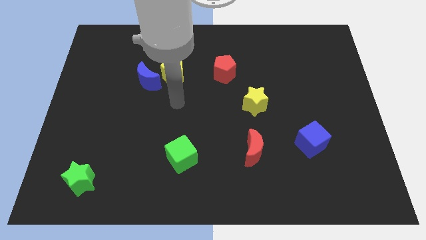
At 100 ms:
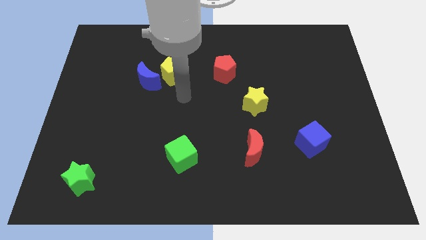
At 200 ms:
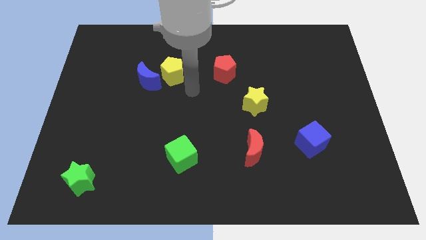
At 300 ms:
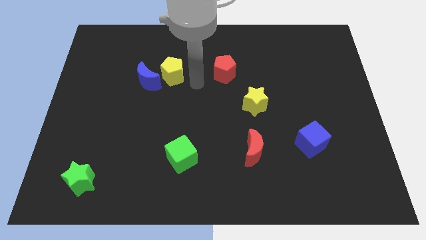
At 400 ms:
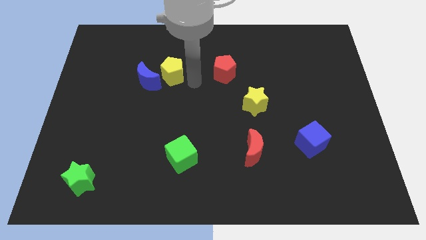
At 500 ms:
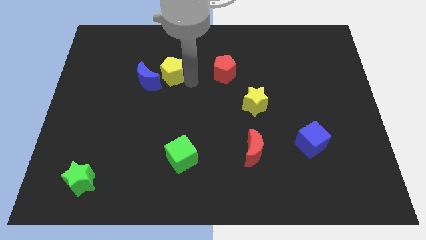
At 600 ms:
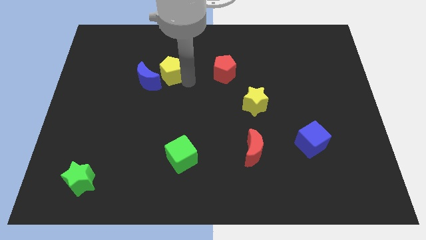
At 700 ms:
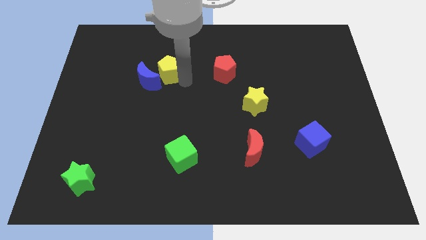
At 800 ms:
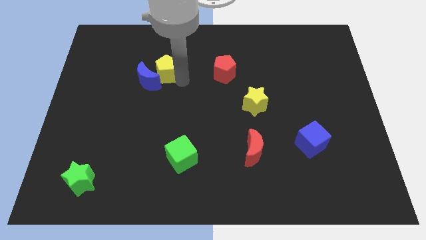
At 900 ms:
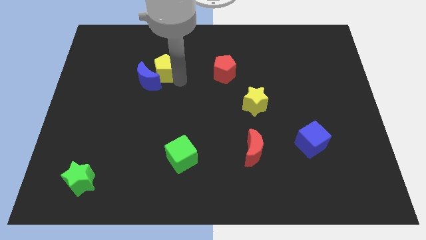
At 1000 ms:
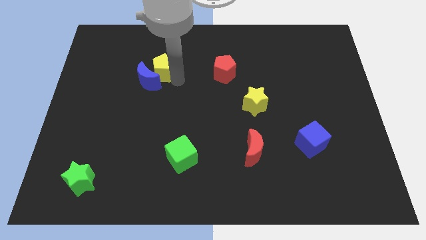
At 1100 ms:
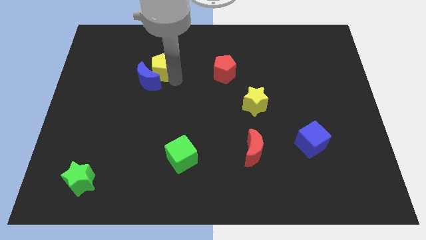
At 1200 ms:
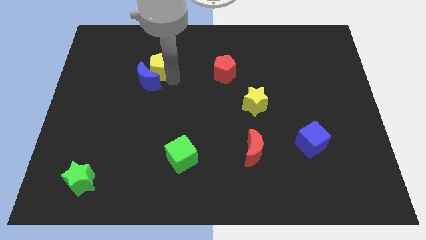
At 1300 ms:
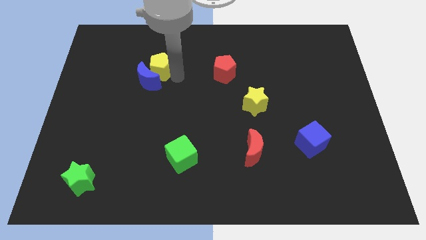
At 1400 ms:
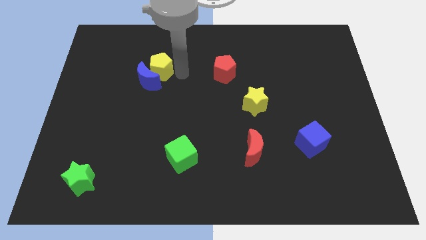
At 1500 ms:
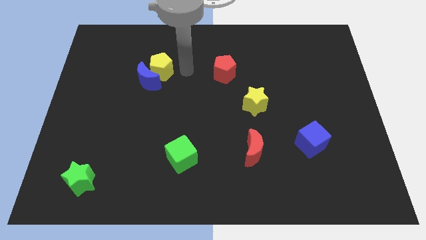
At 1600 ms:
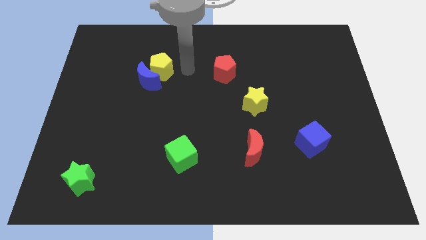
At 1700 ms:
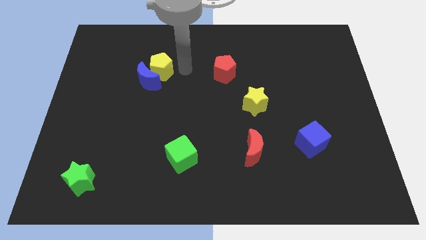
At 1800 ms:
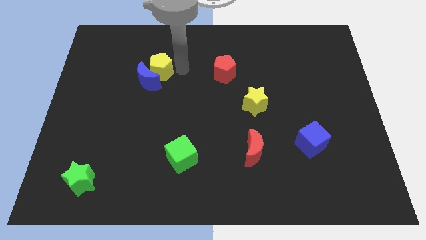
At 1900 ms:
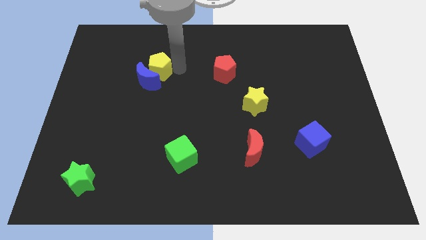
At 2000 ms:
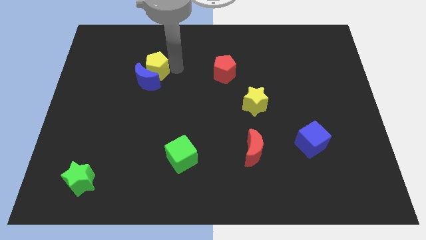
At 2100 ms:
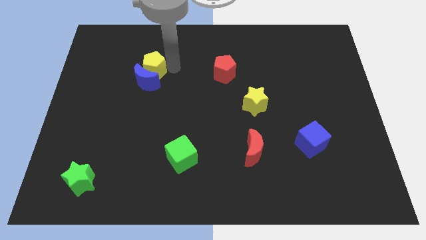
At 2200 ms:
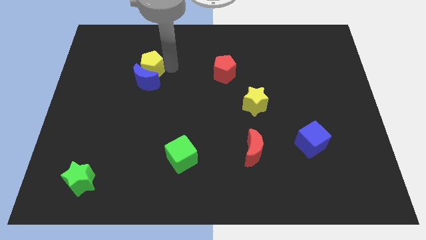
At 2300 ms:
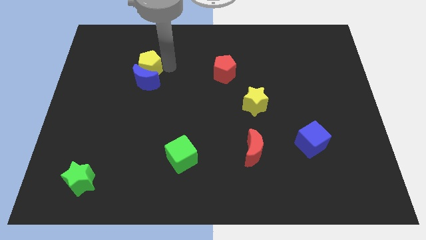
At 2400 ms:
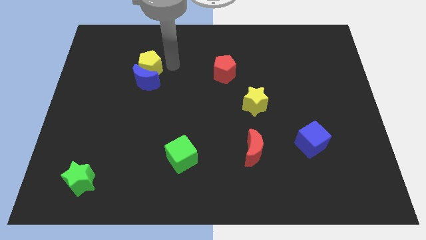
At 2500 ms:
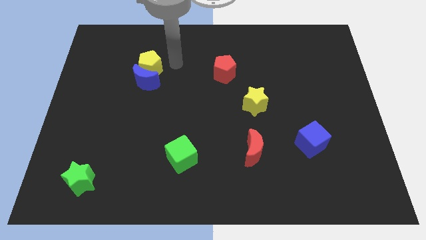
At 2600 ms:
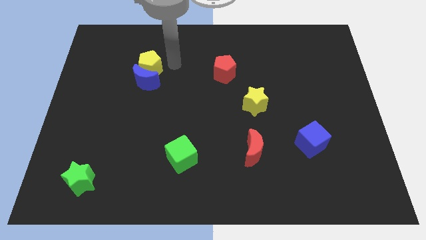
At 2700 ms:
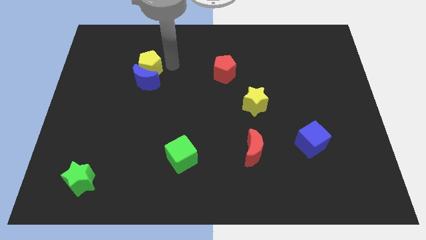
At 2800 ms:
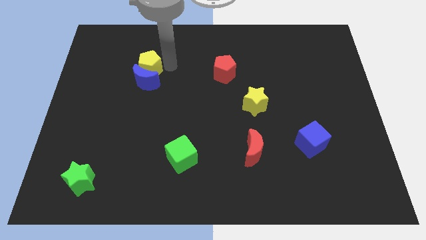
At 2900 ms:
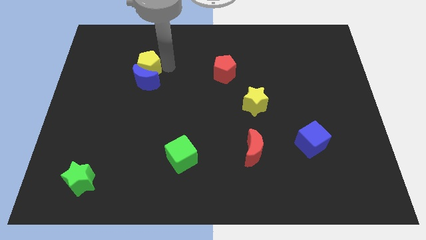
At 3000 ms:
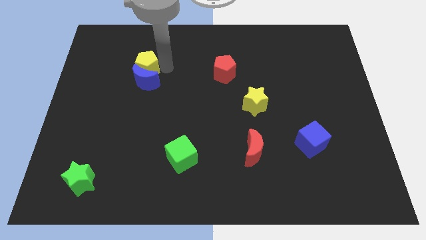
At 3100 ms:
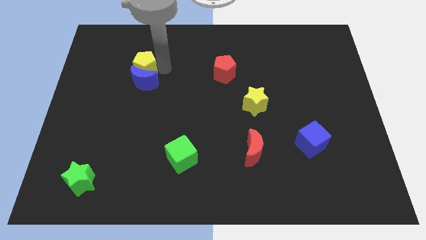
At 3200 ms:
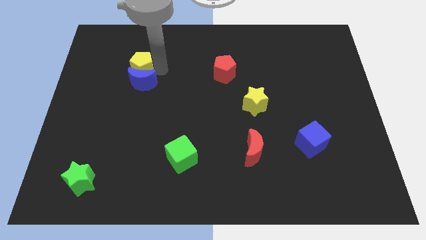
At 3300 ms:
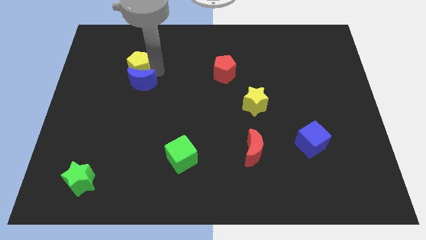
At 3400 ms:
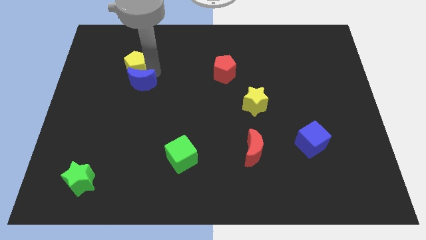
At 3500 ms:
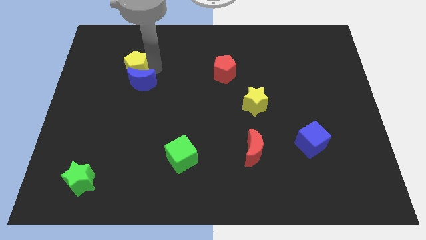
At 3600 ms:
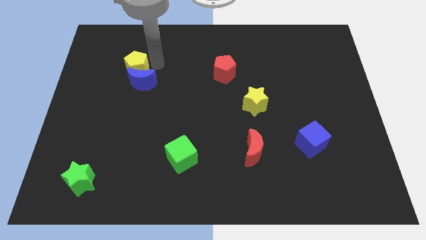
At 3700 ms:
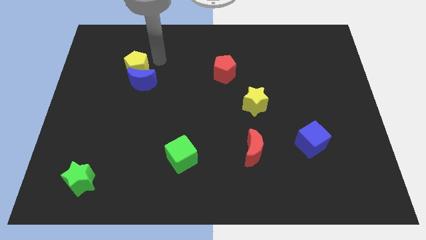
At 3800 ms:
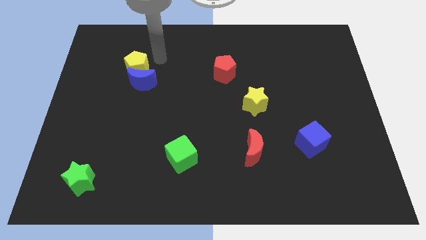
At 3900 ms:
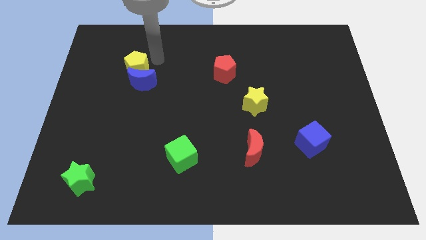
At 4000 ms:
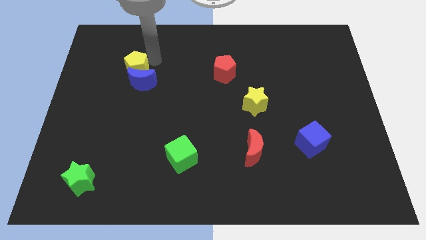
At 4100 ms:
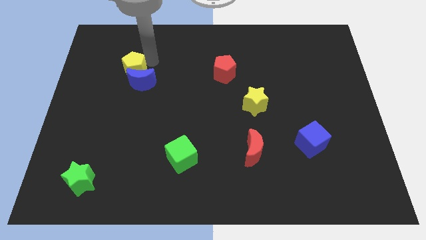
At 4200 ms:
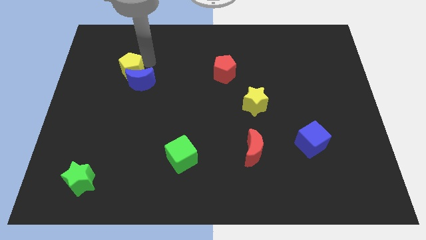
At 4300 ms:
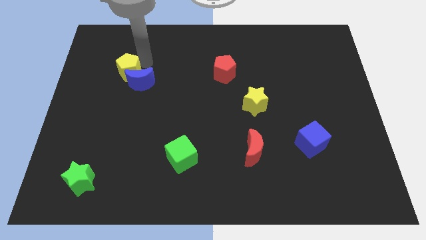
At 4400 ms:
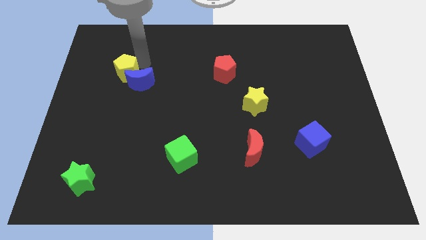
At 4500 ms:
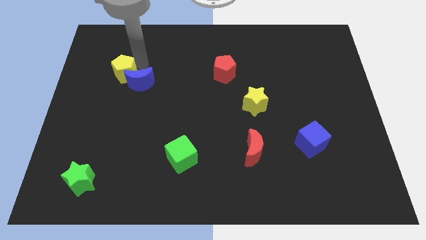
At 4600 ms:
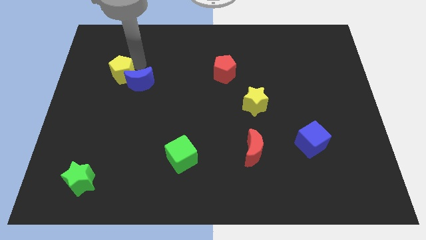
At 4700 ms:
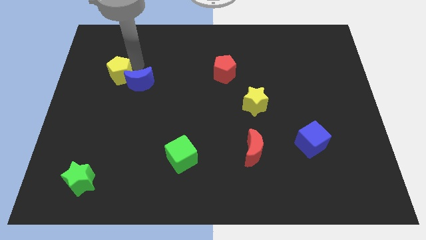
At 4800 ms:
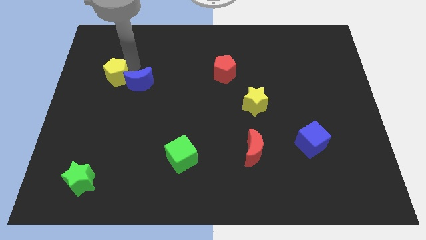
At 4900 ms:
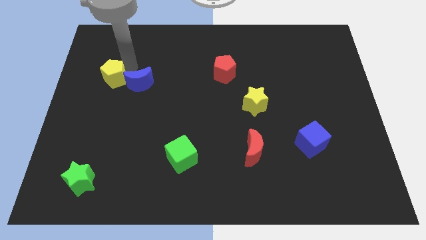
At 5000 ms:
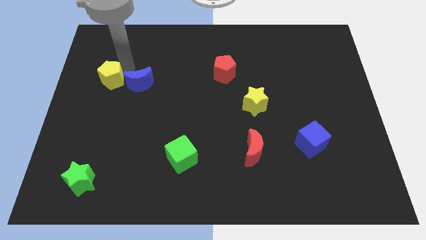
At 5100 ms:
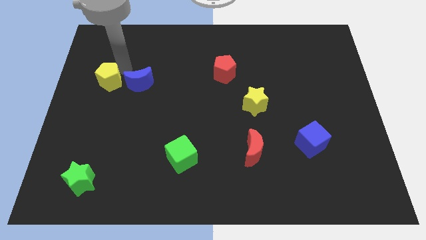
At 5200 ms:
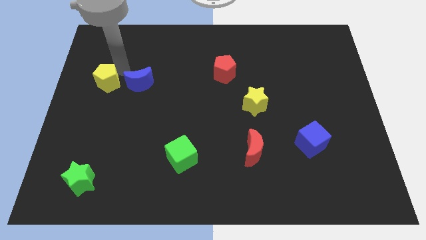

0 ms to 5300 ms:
move the yellow pentagon to the center left

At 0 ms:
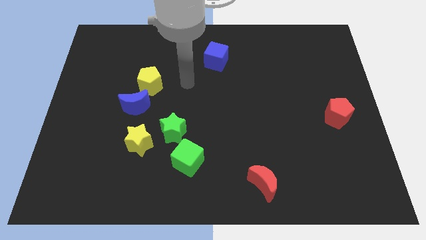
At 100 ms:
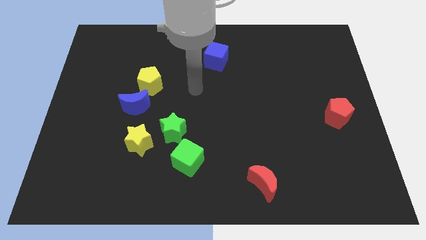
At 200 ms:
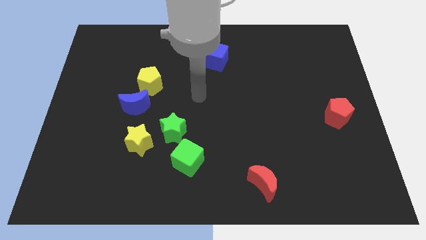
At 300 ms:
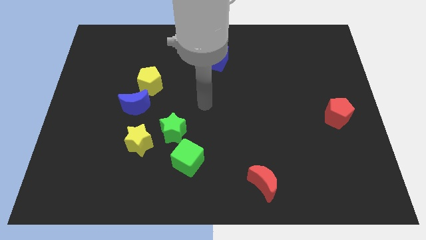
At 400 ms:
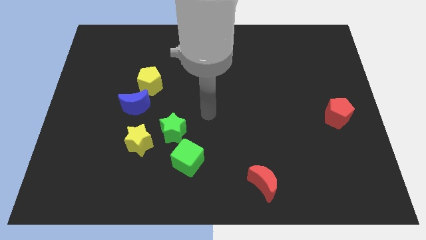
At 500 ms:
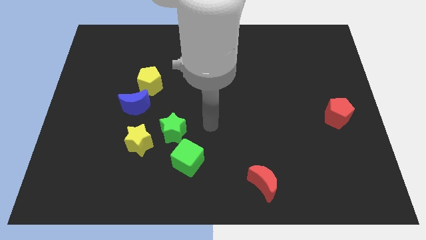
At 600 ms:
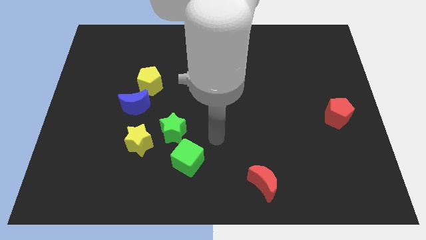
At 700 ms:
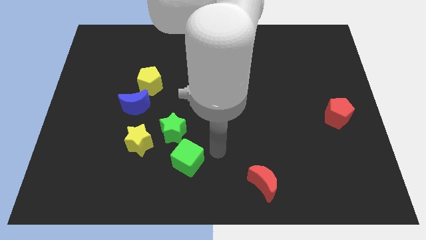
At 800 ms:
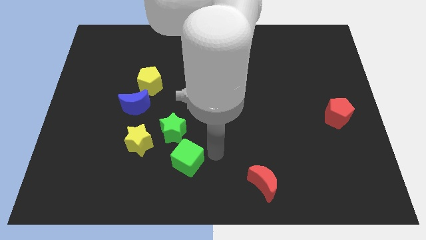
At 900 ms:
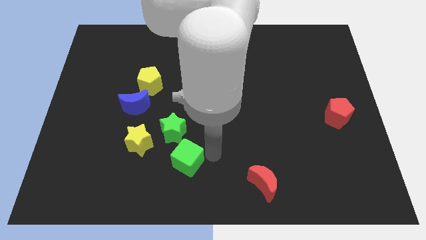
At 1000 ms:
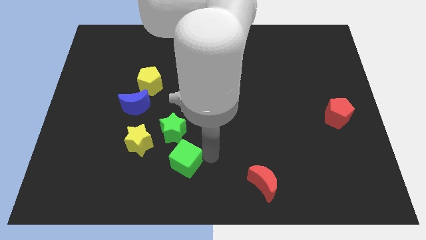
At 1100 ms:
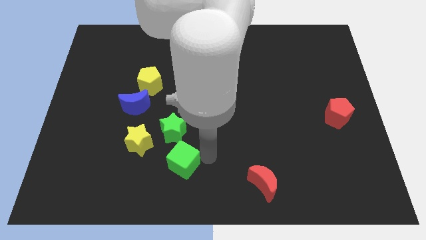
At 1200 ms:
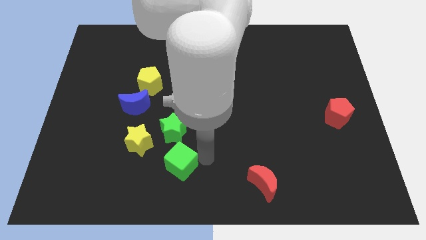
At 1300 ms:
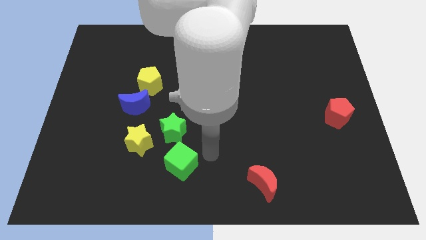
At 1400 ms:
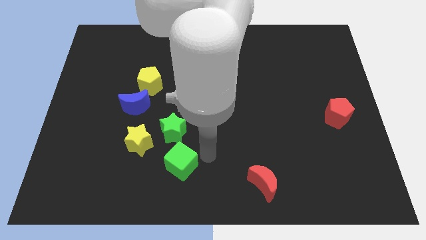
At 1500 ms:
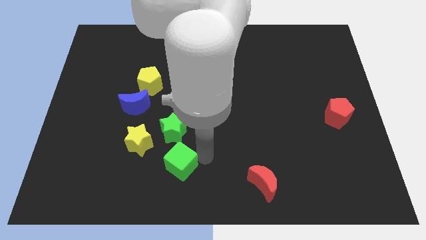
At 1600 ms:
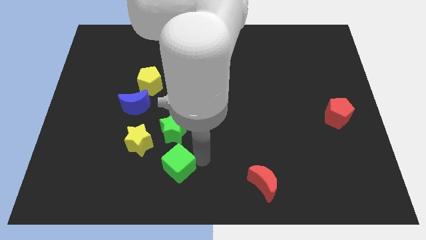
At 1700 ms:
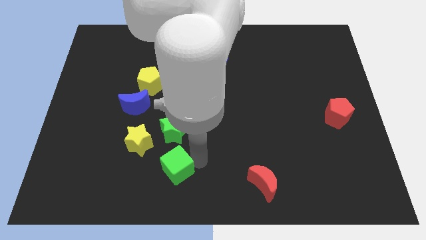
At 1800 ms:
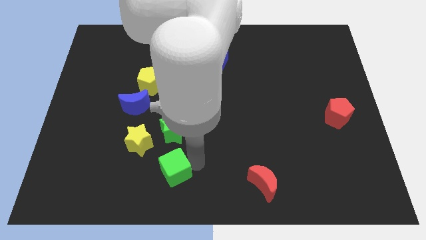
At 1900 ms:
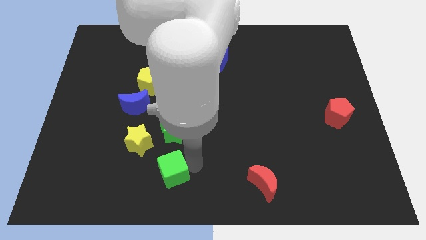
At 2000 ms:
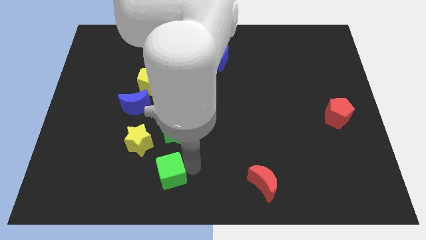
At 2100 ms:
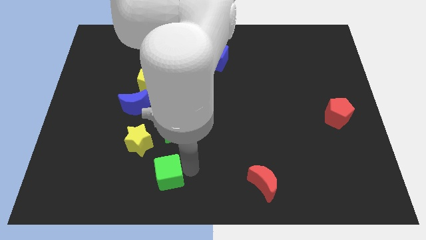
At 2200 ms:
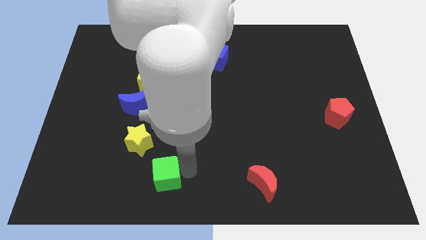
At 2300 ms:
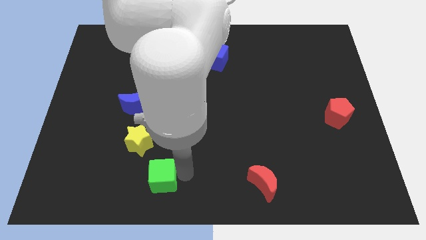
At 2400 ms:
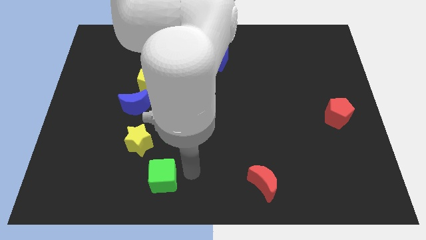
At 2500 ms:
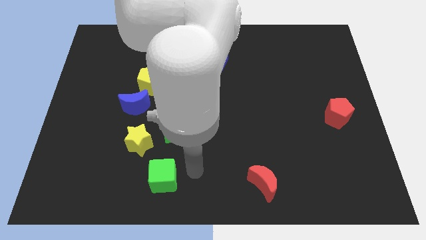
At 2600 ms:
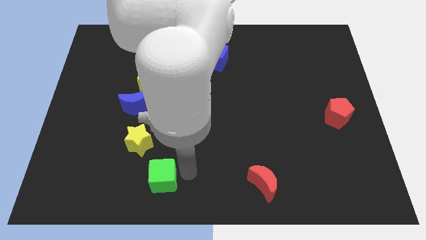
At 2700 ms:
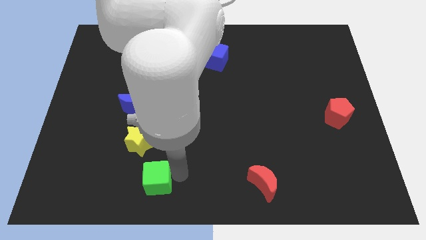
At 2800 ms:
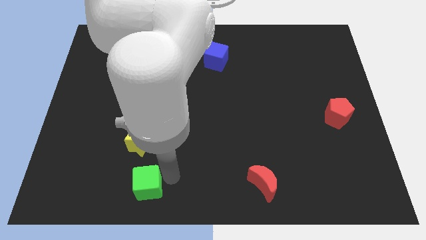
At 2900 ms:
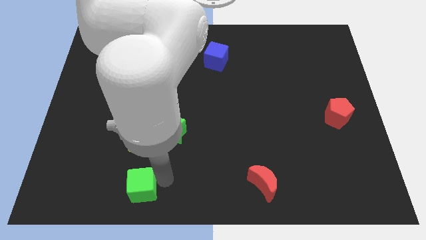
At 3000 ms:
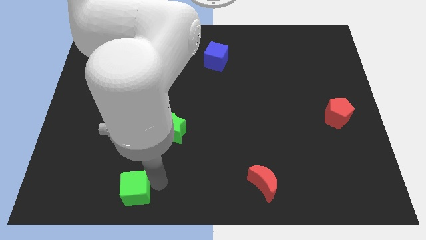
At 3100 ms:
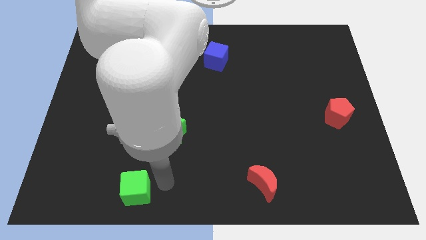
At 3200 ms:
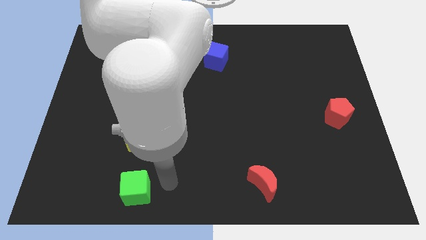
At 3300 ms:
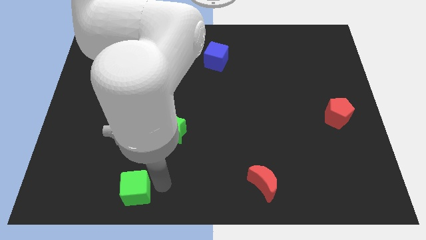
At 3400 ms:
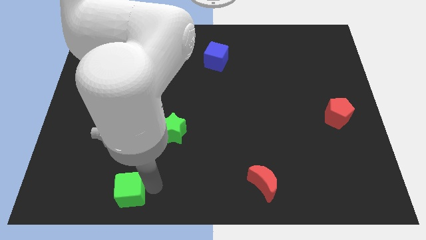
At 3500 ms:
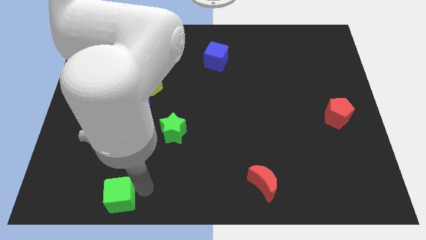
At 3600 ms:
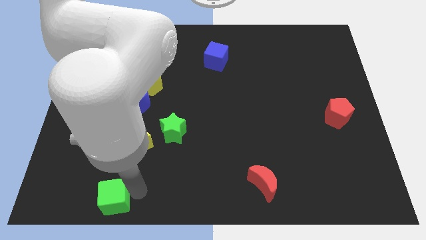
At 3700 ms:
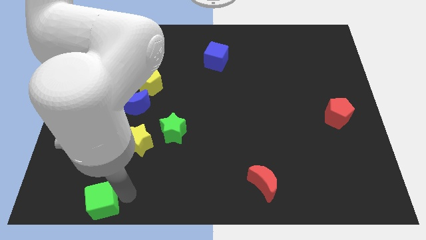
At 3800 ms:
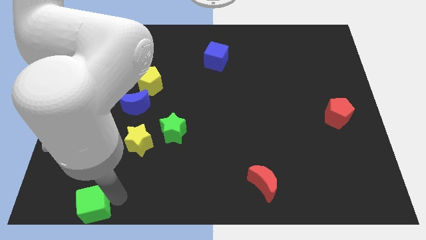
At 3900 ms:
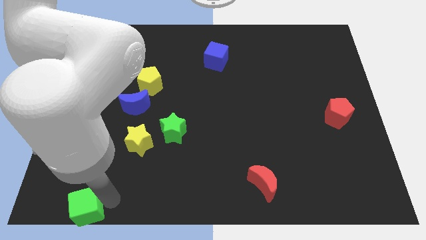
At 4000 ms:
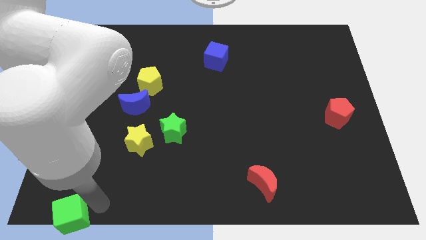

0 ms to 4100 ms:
move the green cube to the bottom left of the board
